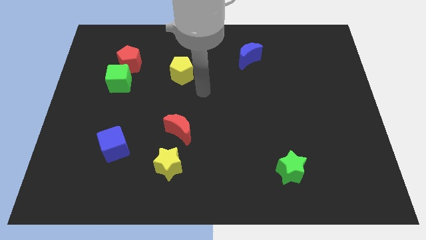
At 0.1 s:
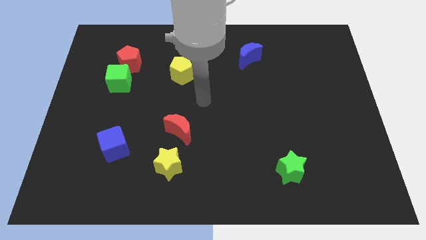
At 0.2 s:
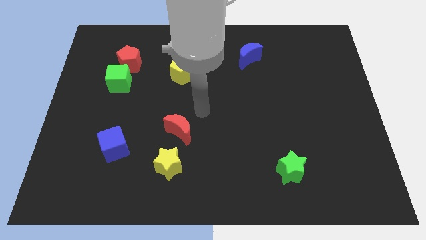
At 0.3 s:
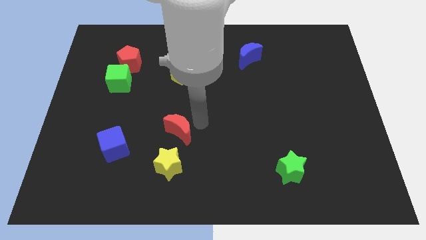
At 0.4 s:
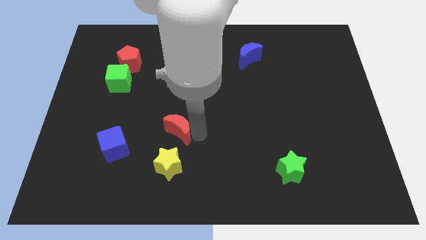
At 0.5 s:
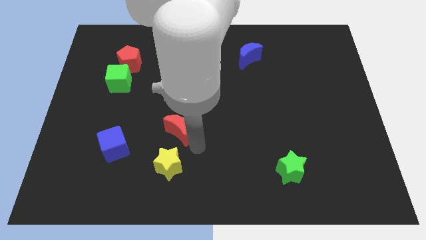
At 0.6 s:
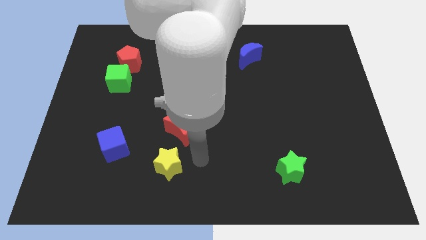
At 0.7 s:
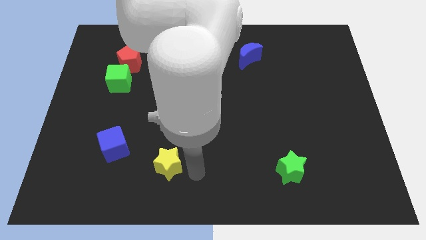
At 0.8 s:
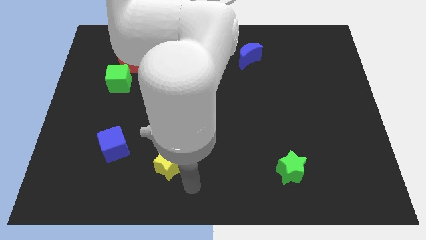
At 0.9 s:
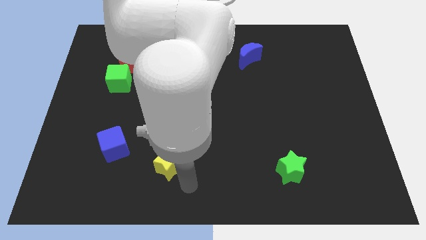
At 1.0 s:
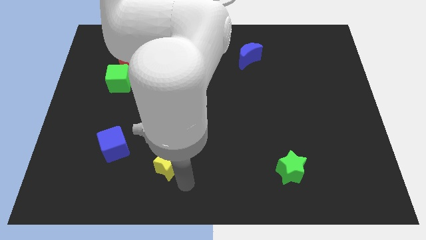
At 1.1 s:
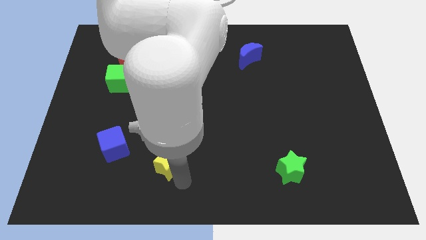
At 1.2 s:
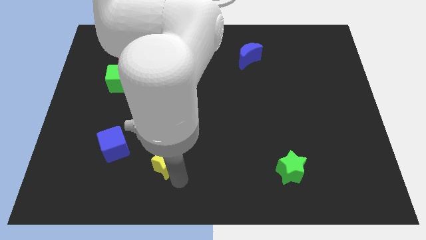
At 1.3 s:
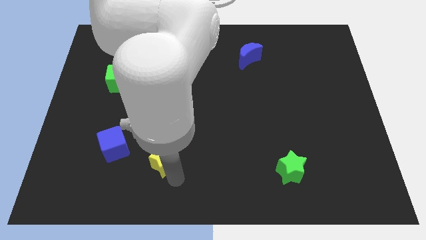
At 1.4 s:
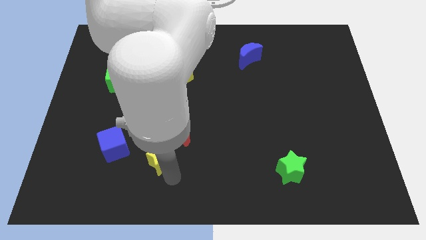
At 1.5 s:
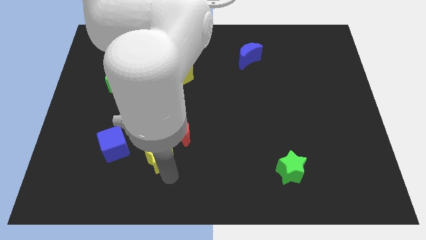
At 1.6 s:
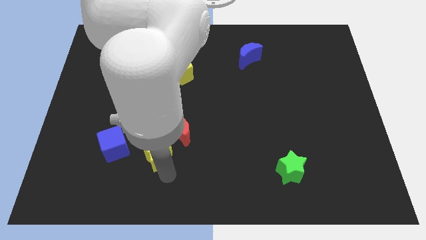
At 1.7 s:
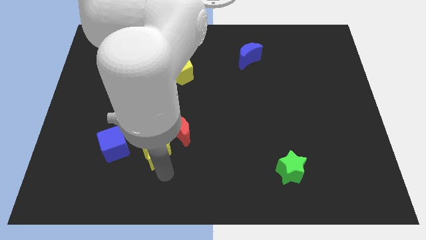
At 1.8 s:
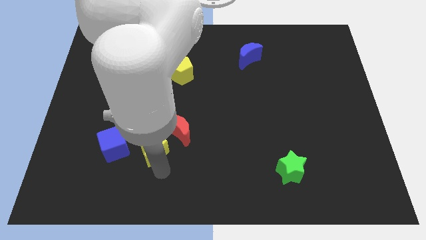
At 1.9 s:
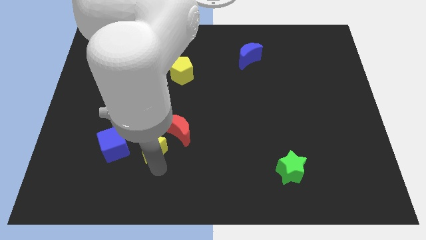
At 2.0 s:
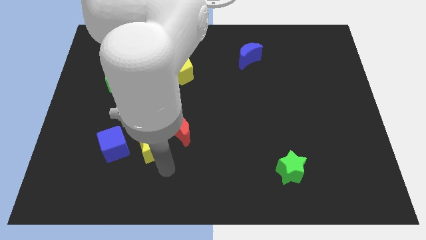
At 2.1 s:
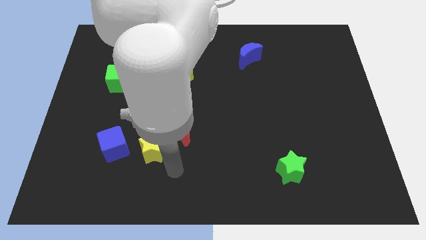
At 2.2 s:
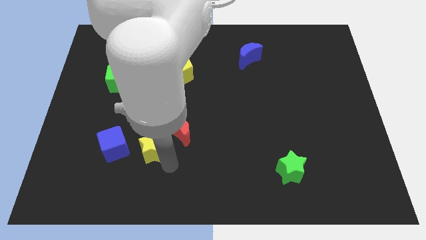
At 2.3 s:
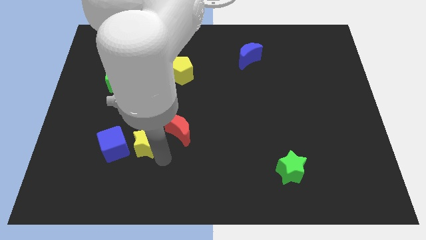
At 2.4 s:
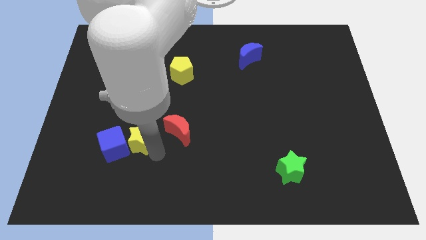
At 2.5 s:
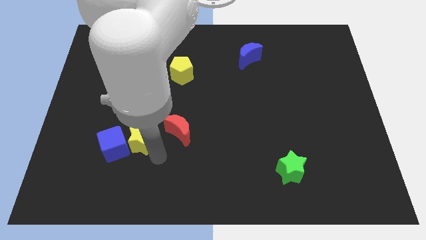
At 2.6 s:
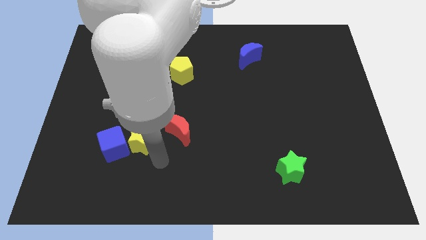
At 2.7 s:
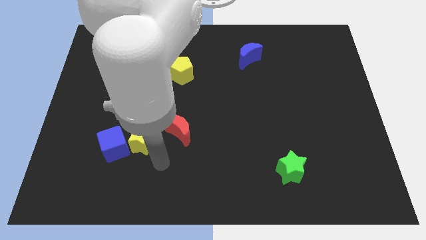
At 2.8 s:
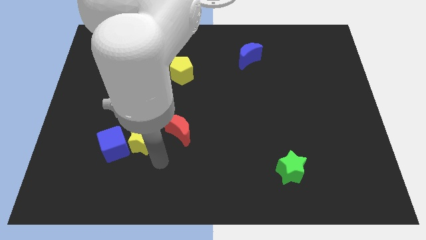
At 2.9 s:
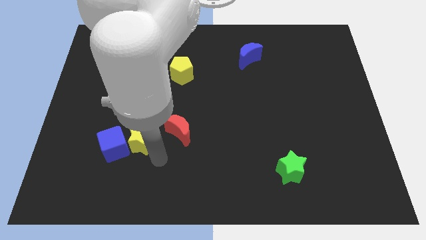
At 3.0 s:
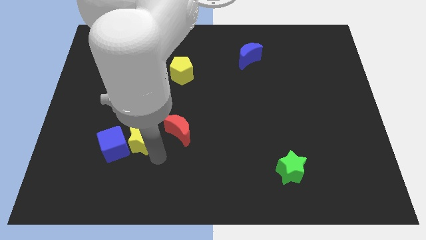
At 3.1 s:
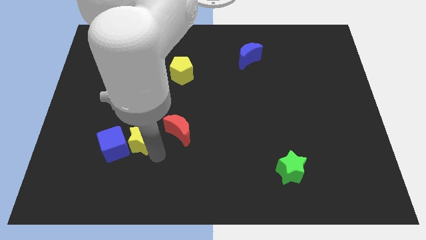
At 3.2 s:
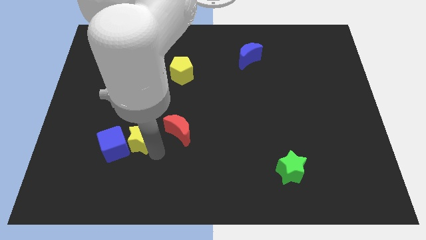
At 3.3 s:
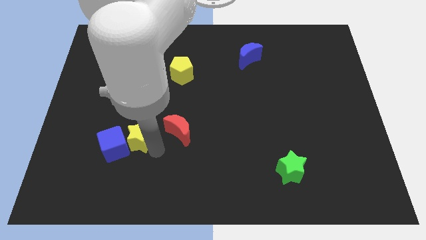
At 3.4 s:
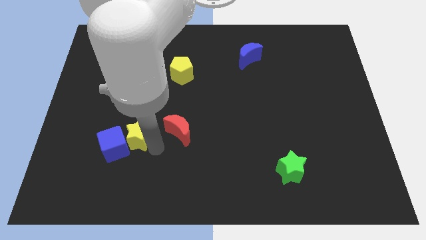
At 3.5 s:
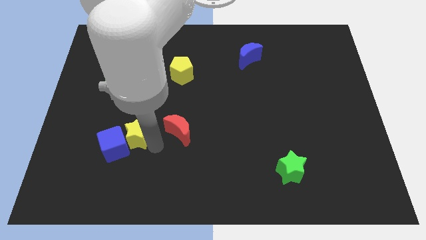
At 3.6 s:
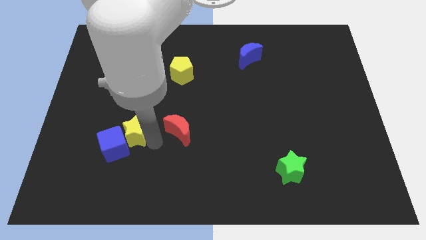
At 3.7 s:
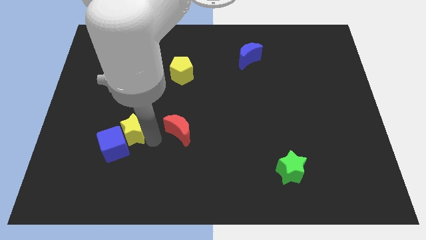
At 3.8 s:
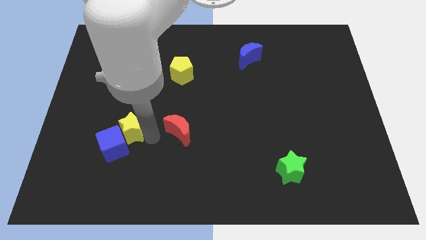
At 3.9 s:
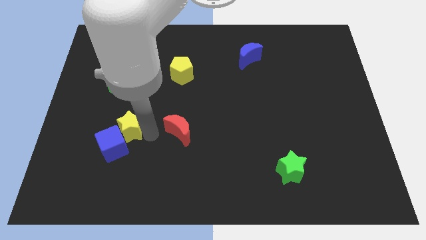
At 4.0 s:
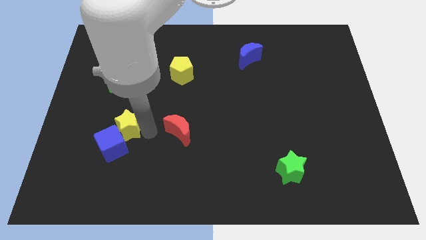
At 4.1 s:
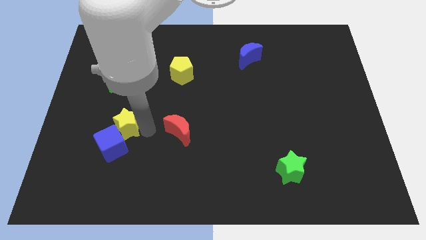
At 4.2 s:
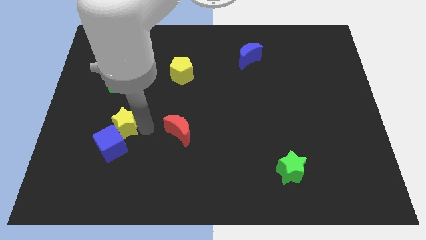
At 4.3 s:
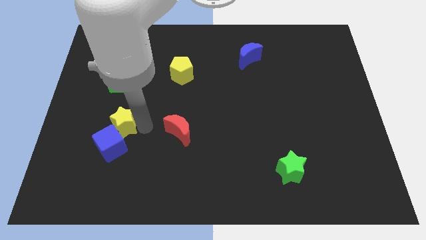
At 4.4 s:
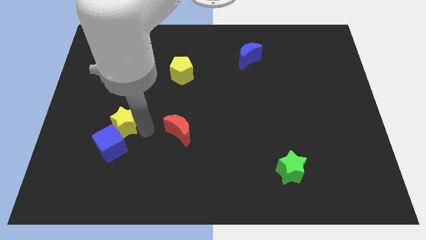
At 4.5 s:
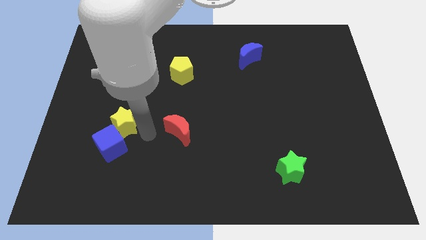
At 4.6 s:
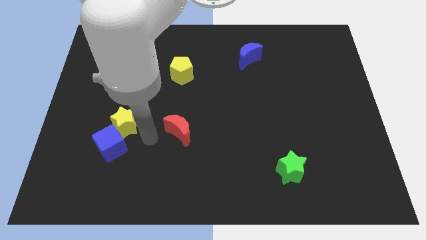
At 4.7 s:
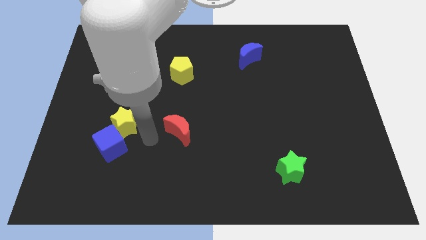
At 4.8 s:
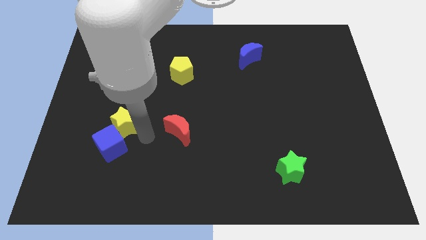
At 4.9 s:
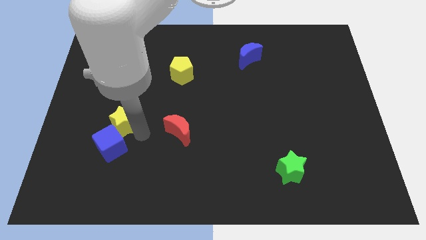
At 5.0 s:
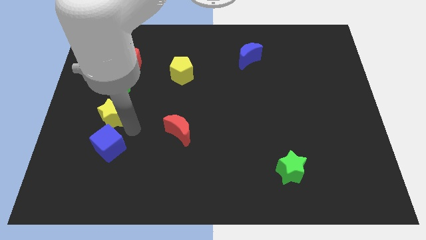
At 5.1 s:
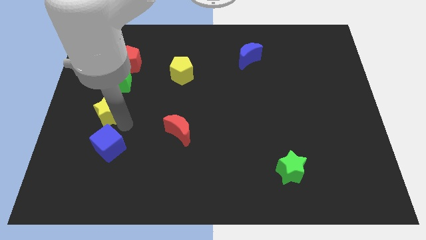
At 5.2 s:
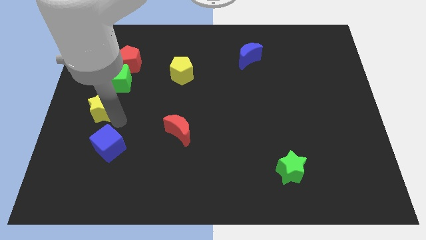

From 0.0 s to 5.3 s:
move the yellow star to the bottom left of the green cube

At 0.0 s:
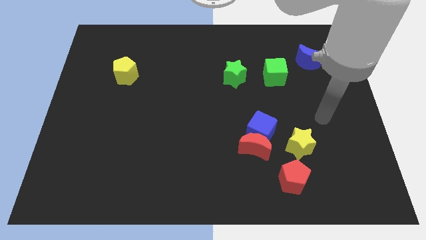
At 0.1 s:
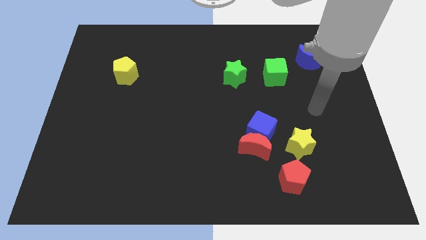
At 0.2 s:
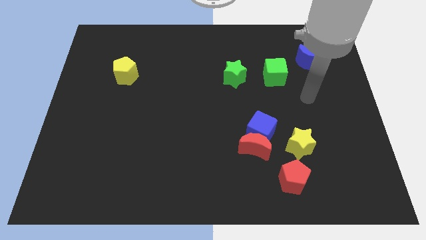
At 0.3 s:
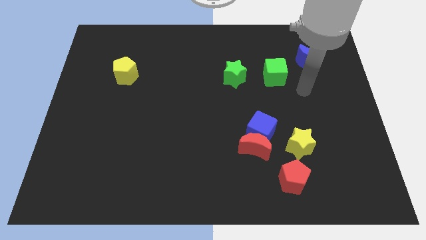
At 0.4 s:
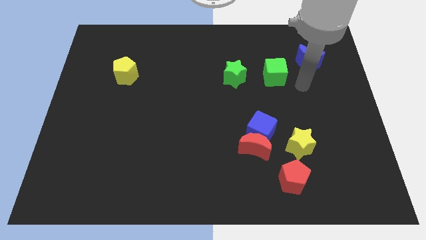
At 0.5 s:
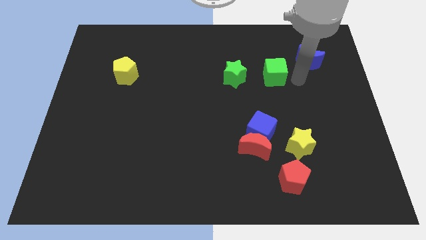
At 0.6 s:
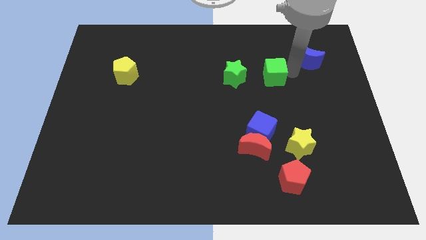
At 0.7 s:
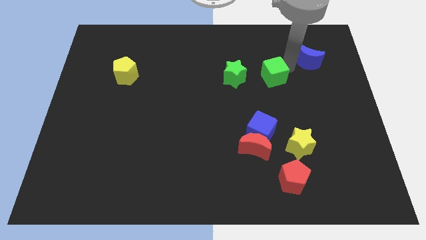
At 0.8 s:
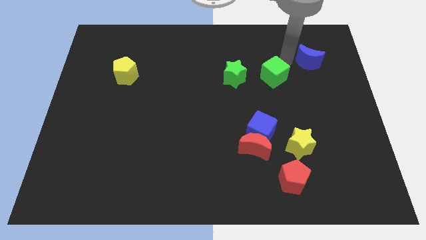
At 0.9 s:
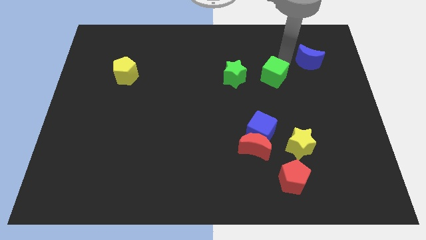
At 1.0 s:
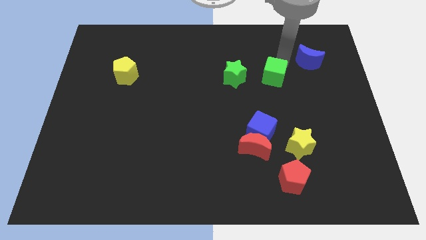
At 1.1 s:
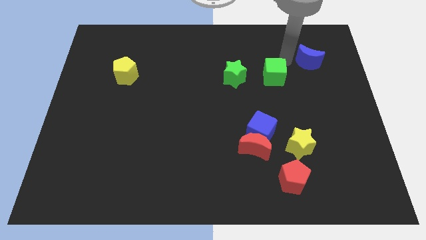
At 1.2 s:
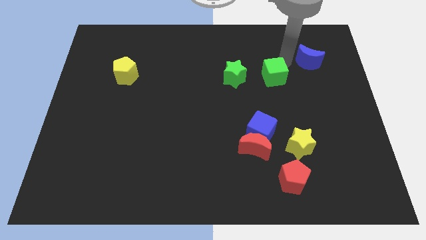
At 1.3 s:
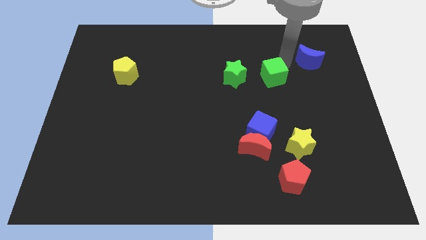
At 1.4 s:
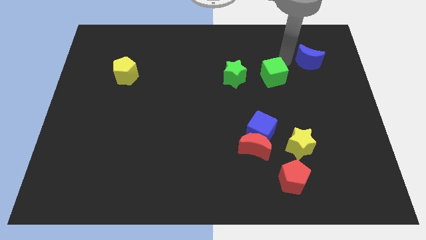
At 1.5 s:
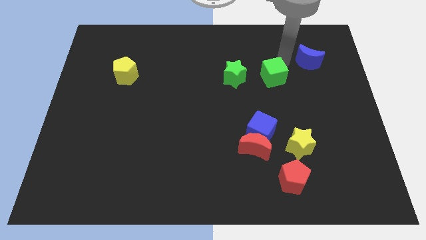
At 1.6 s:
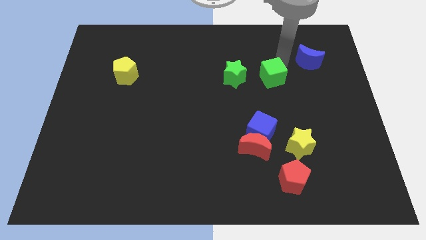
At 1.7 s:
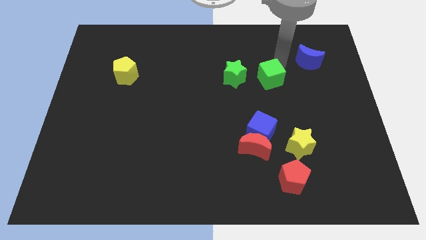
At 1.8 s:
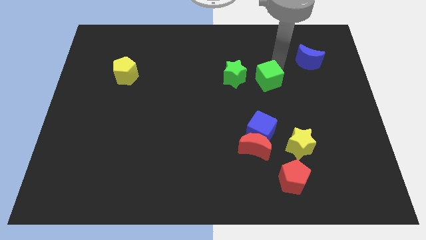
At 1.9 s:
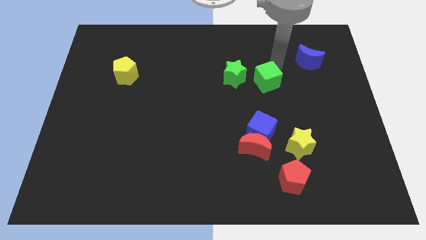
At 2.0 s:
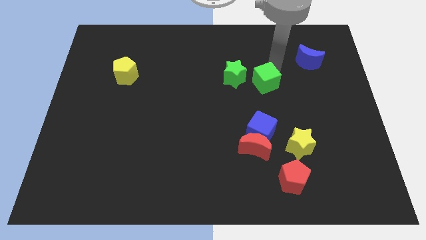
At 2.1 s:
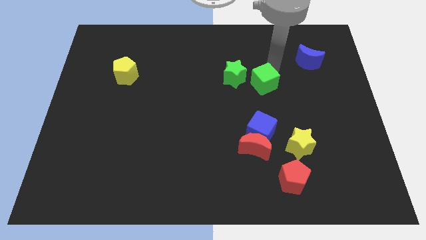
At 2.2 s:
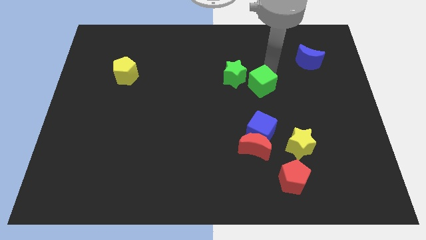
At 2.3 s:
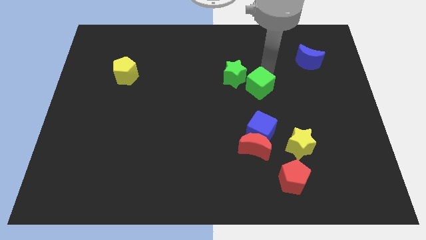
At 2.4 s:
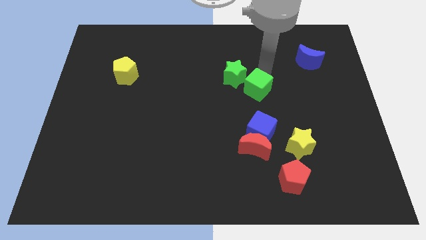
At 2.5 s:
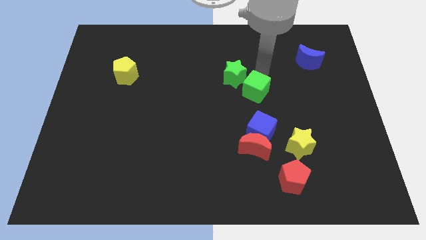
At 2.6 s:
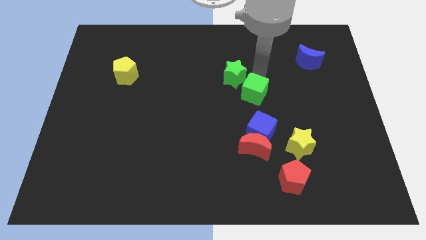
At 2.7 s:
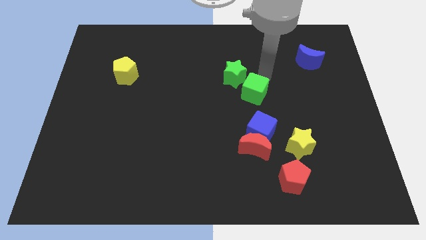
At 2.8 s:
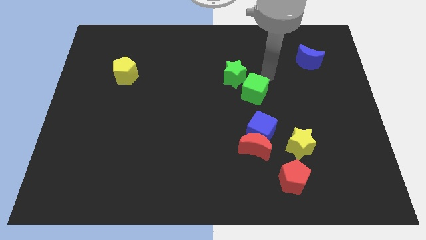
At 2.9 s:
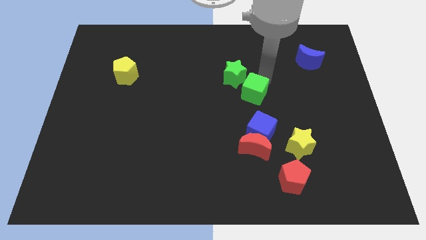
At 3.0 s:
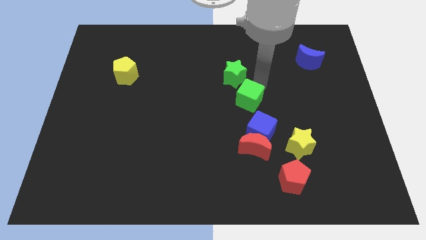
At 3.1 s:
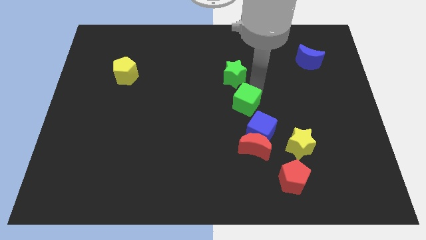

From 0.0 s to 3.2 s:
put the green cube diagonally up and to the left of the blue cube
